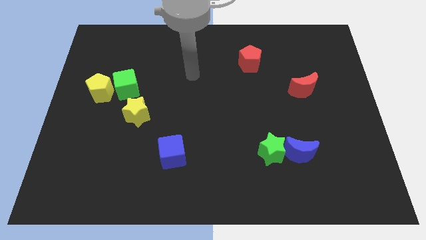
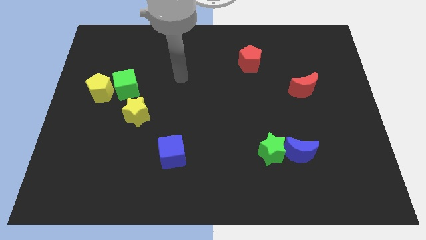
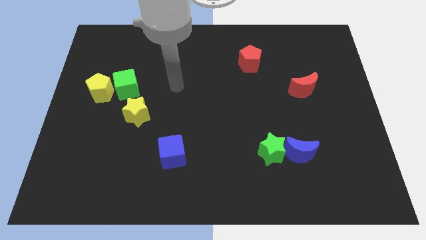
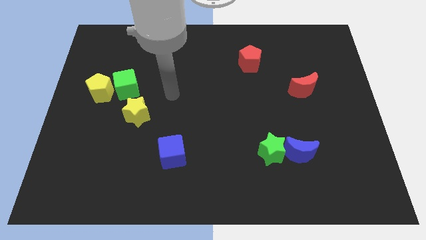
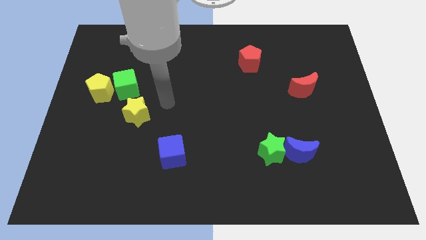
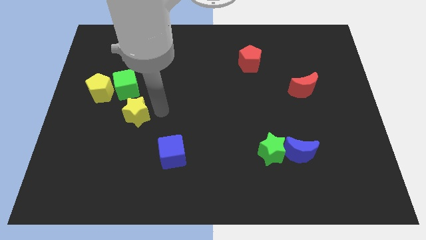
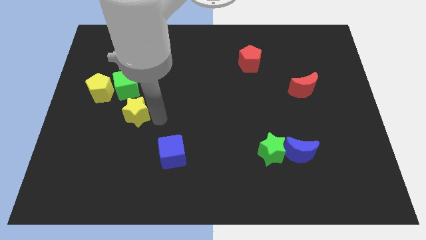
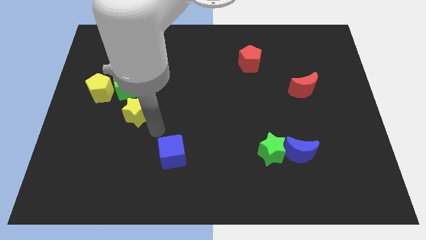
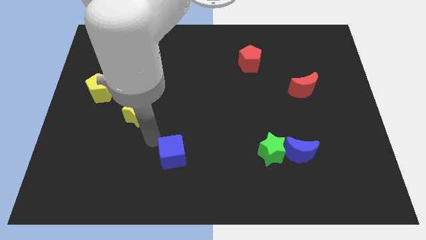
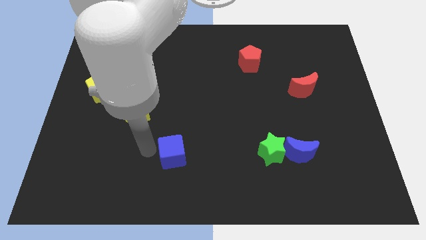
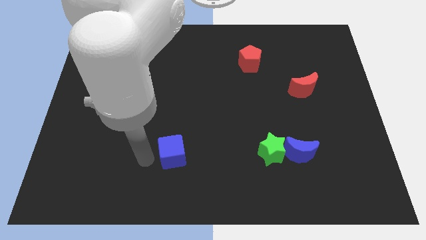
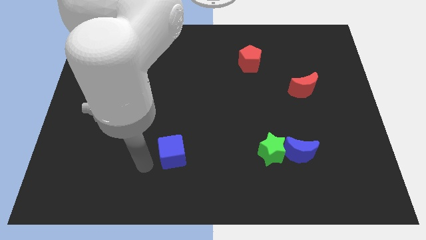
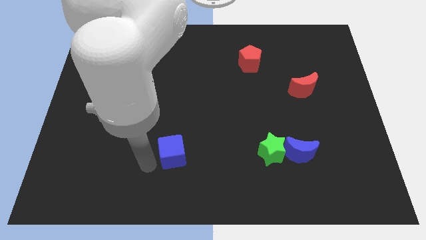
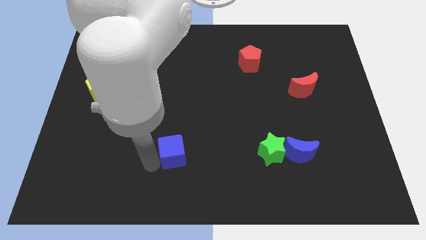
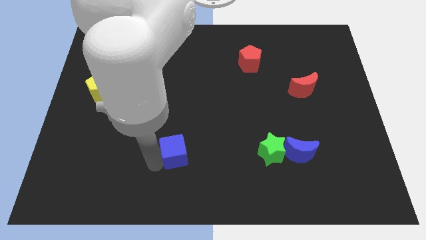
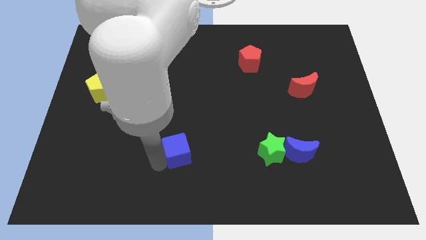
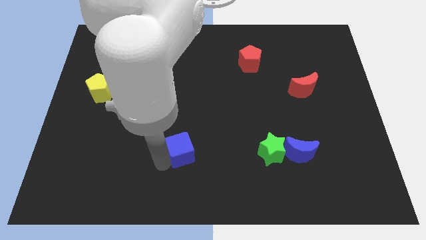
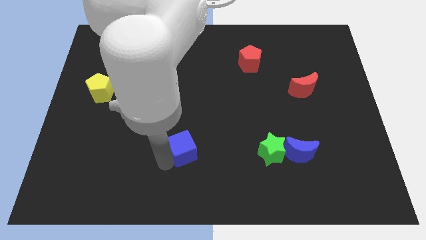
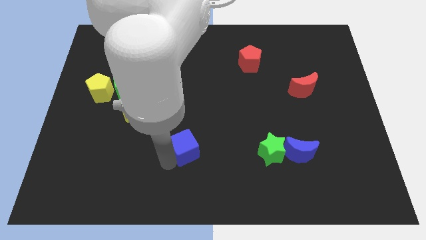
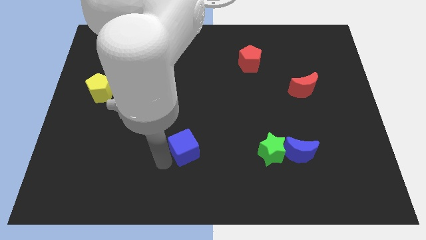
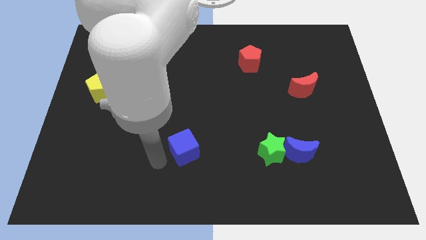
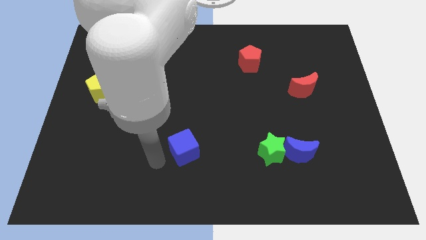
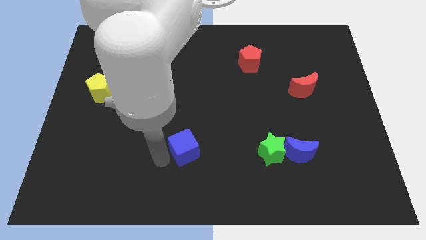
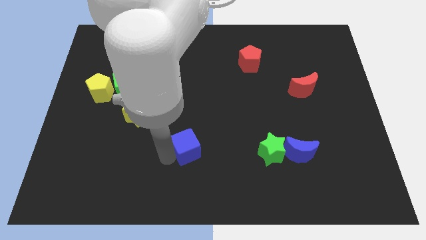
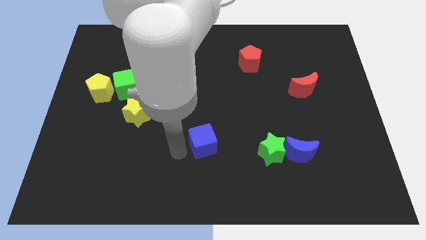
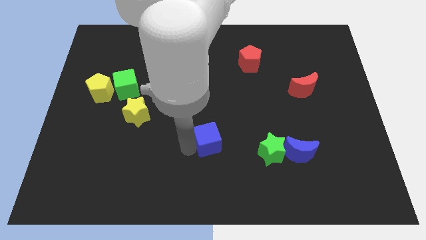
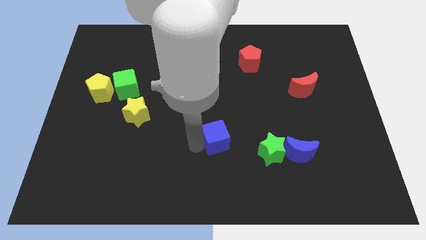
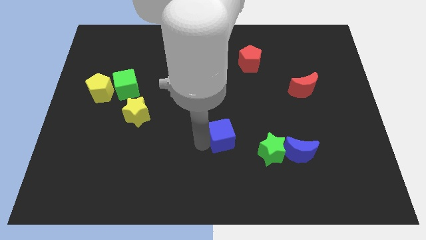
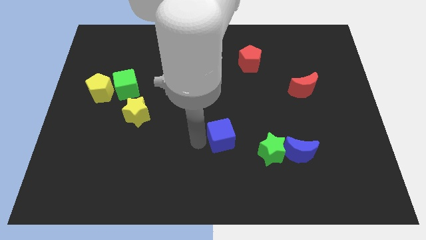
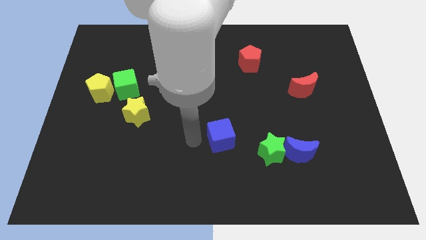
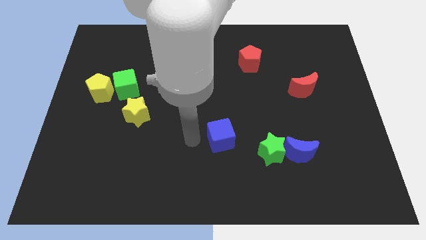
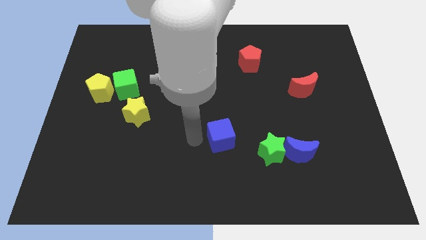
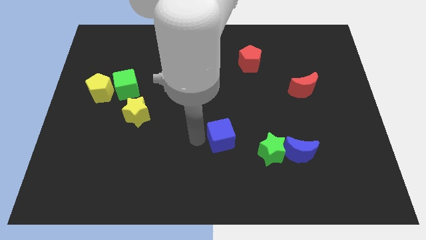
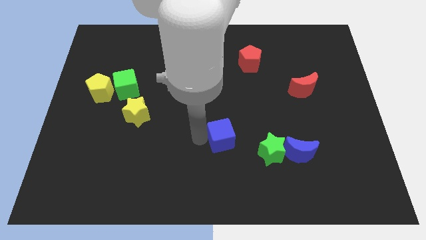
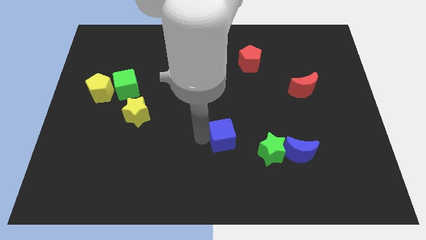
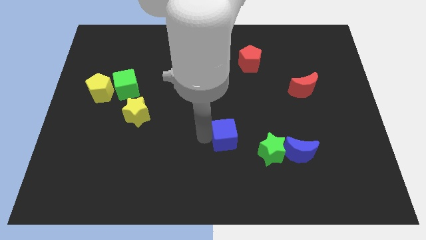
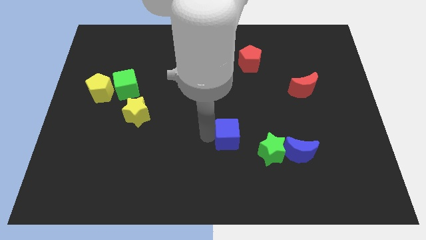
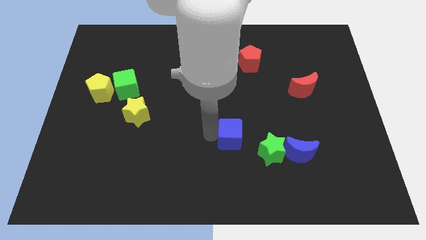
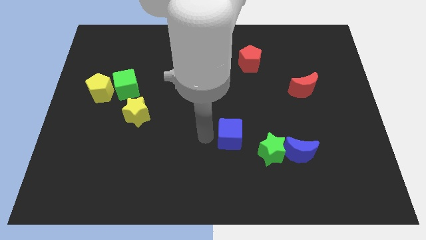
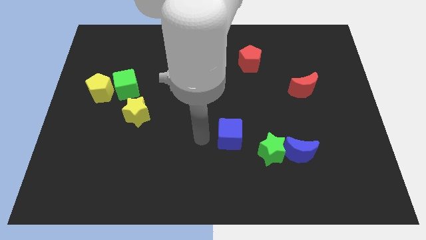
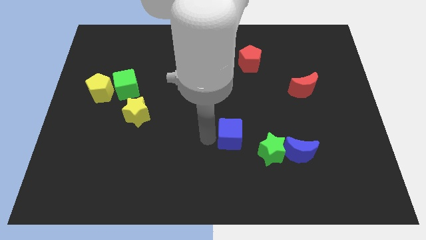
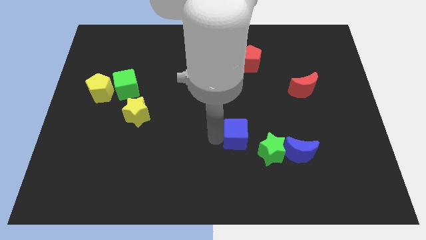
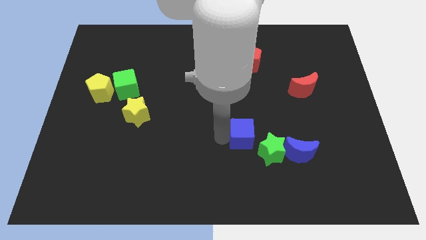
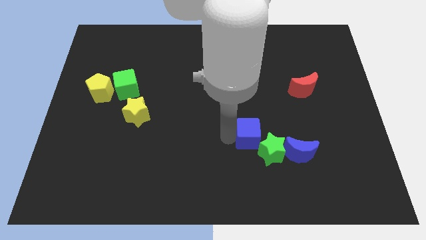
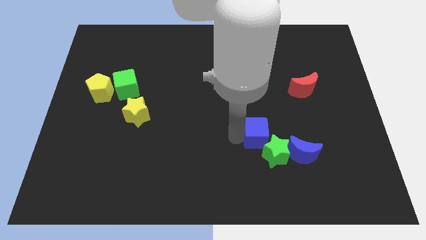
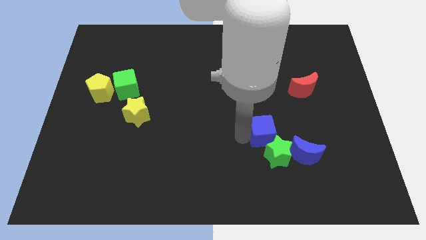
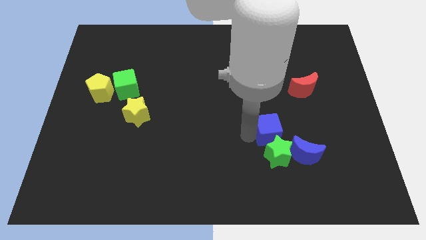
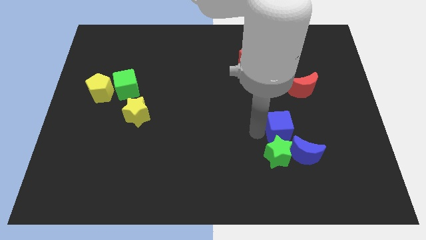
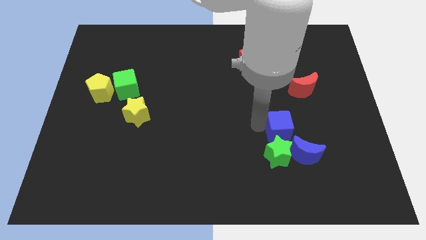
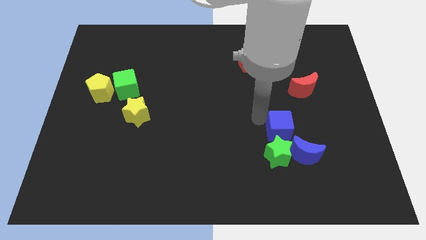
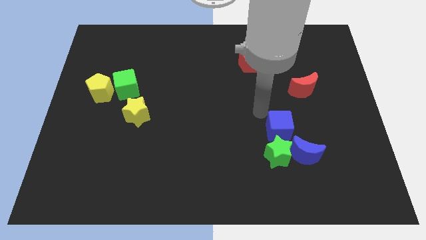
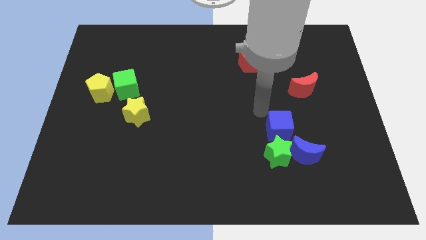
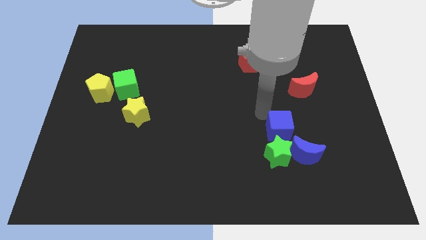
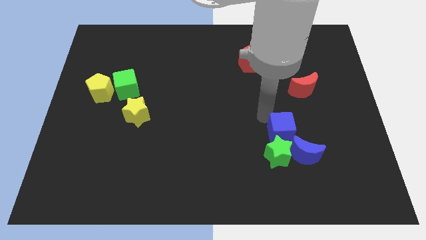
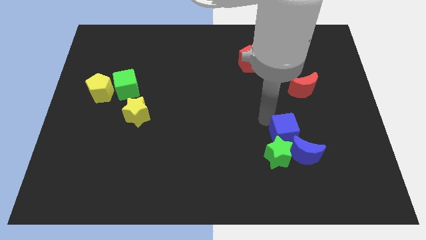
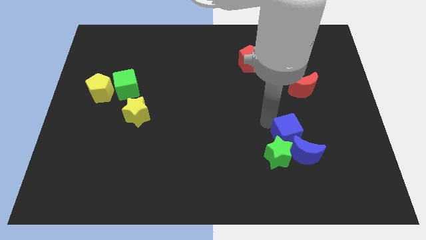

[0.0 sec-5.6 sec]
push the blue cube to the blue moon

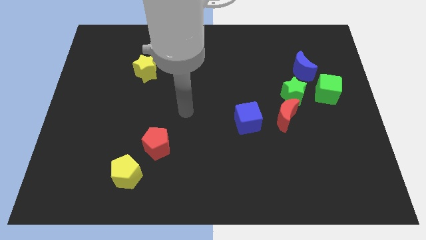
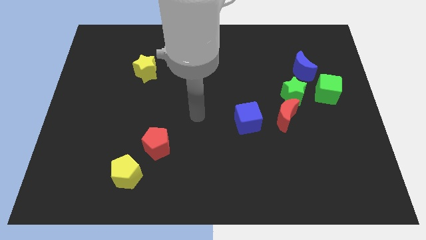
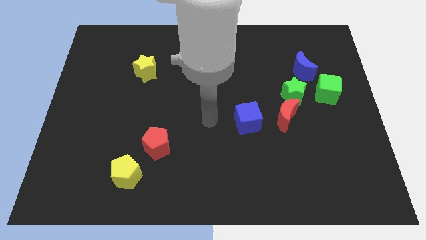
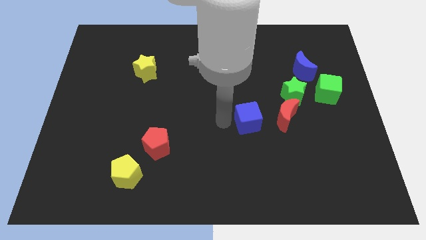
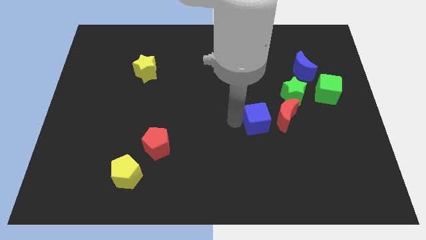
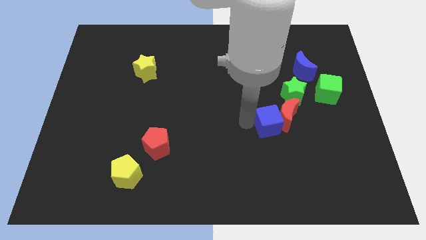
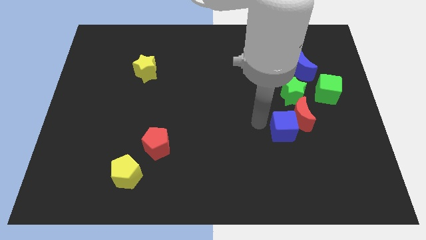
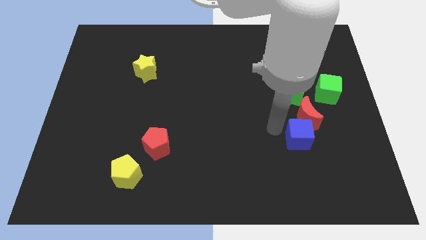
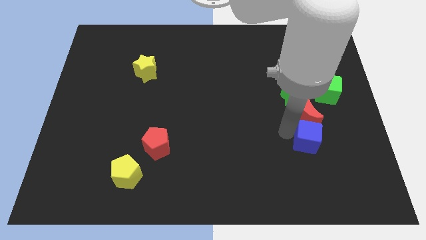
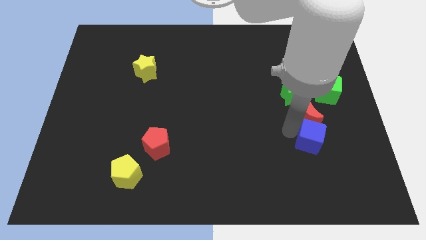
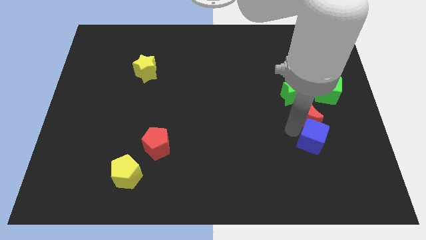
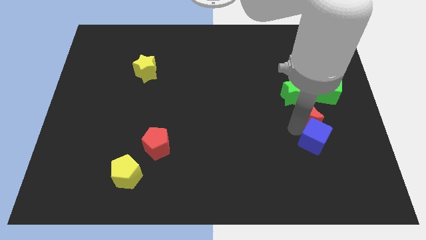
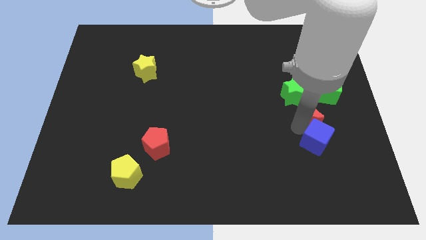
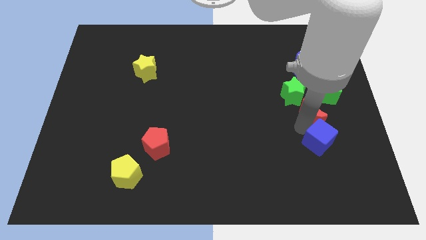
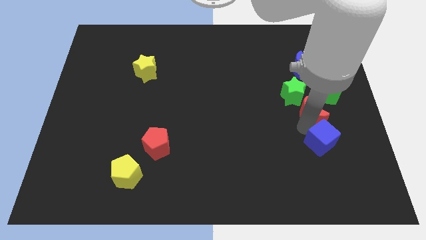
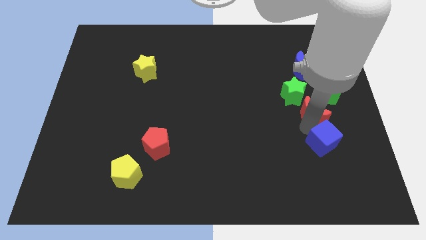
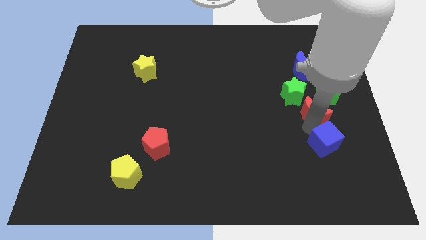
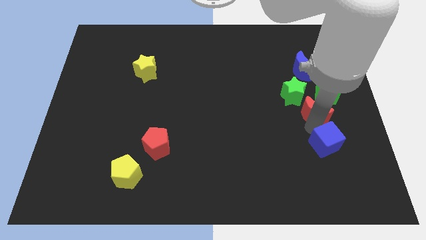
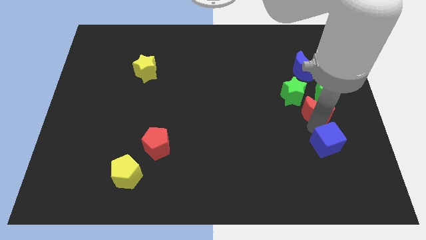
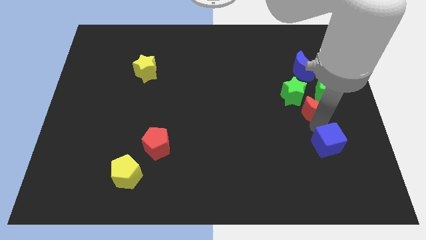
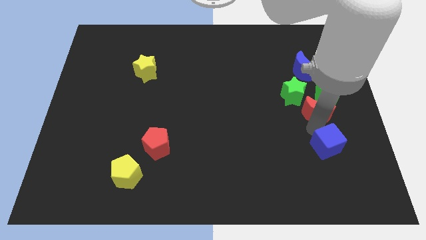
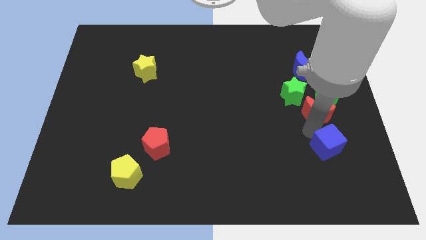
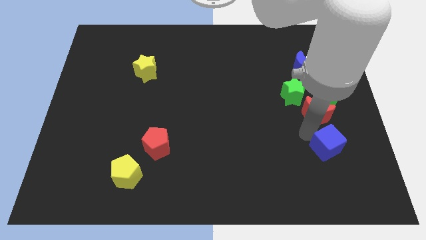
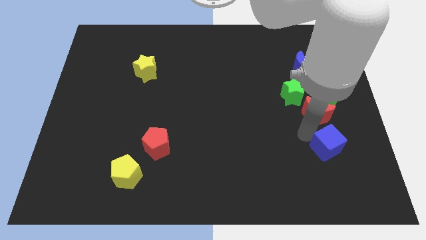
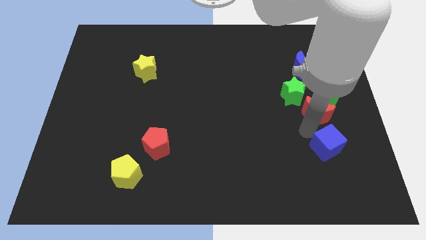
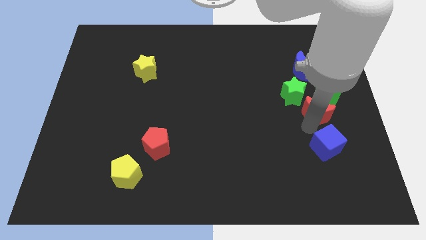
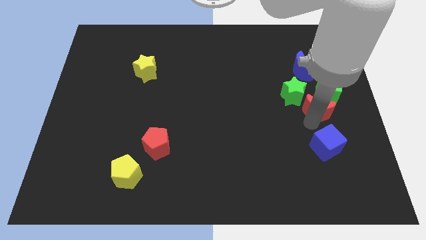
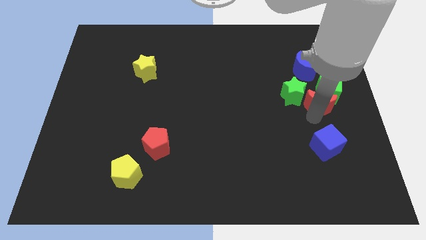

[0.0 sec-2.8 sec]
move the red moon close to the green cube
